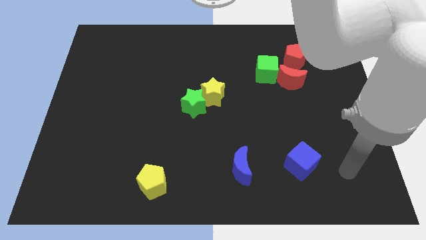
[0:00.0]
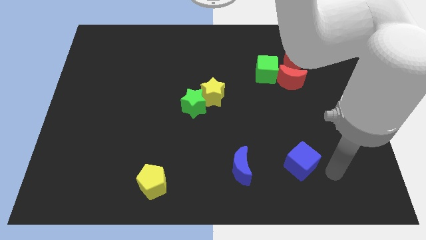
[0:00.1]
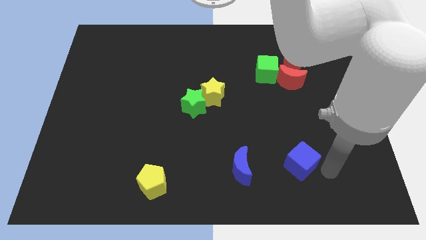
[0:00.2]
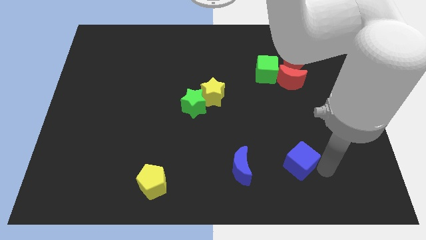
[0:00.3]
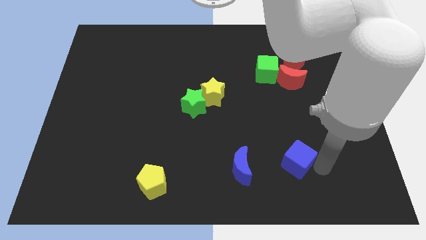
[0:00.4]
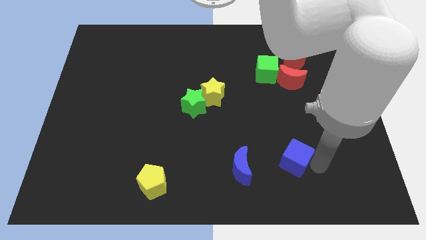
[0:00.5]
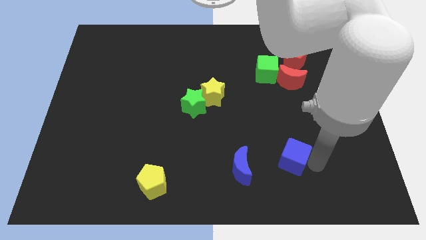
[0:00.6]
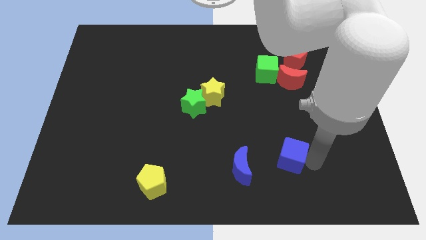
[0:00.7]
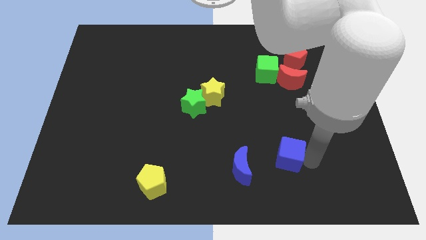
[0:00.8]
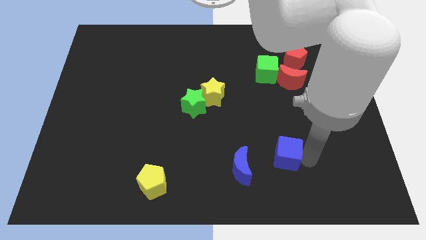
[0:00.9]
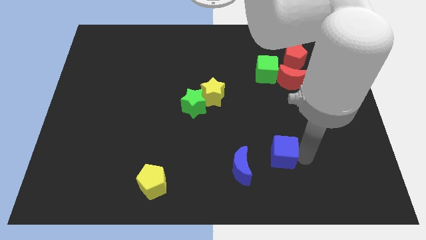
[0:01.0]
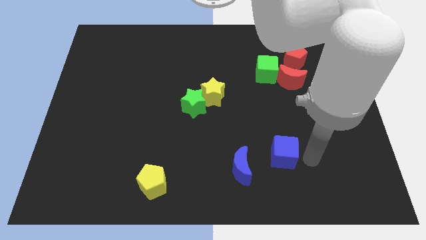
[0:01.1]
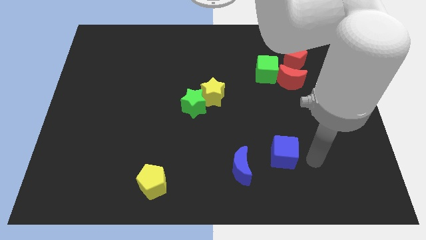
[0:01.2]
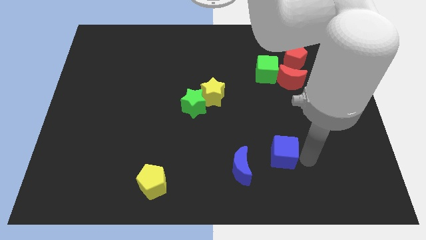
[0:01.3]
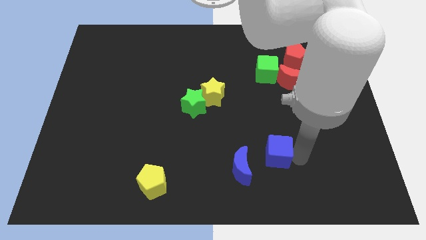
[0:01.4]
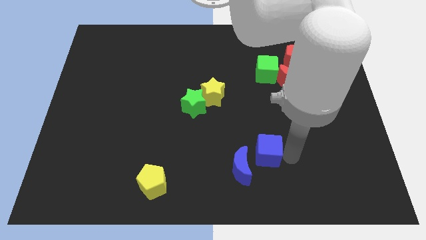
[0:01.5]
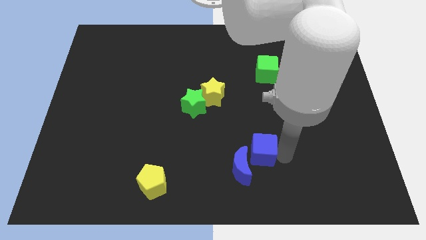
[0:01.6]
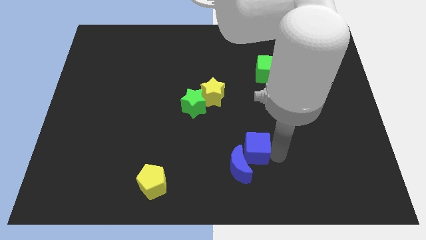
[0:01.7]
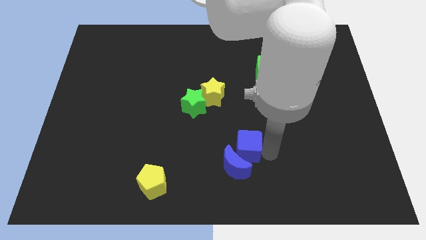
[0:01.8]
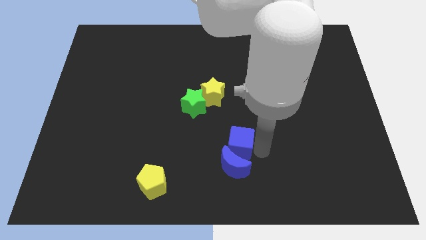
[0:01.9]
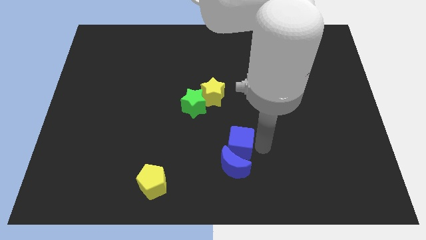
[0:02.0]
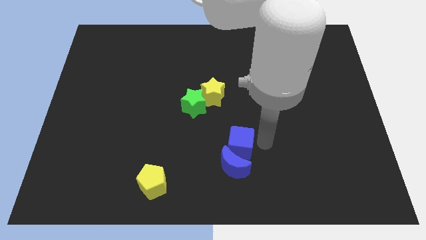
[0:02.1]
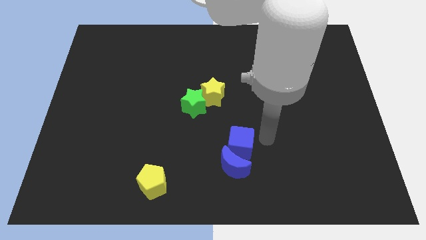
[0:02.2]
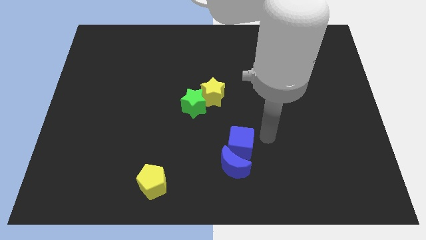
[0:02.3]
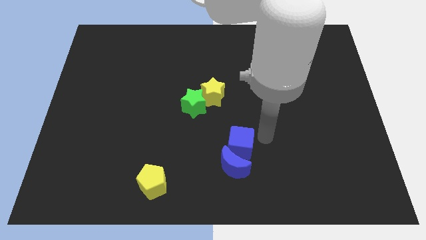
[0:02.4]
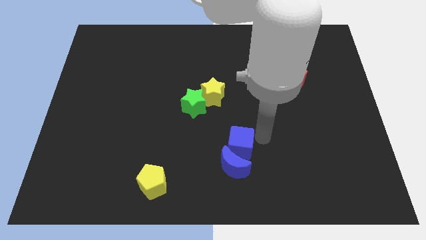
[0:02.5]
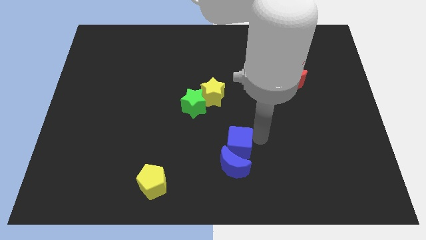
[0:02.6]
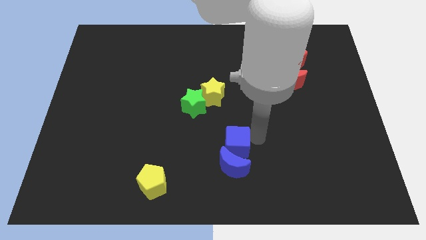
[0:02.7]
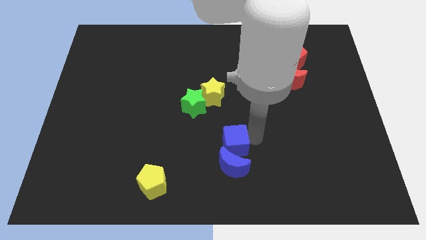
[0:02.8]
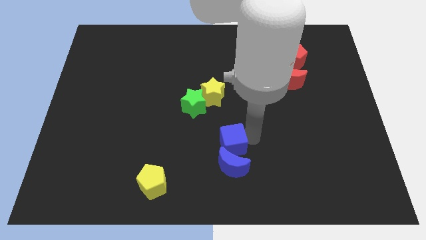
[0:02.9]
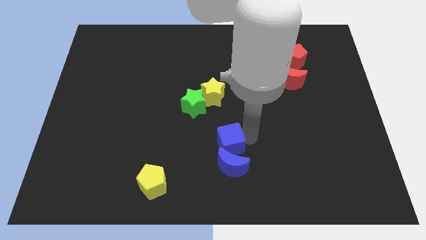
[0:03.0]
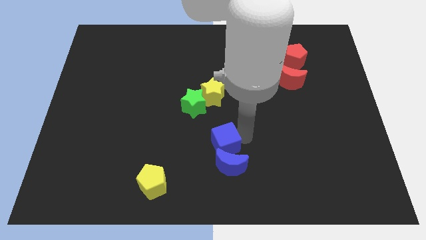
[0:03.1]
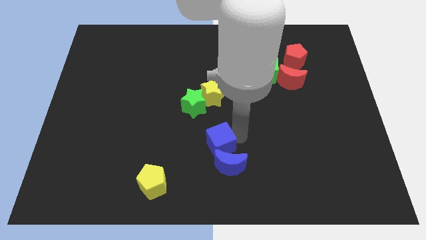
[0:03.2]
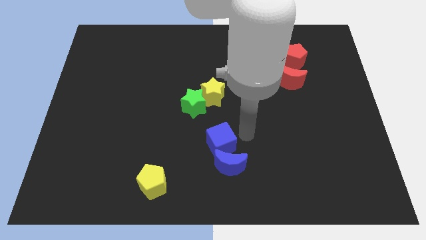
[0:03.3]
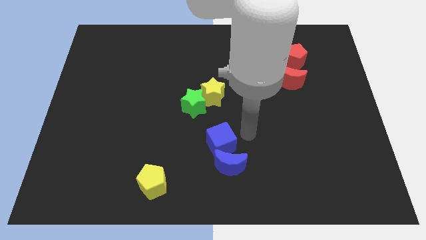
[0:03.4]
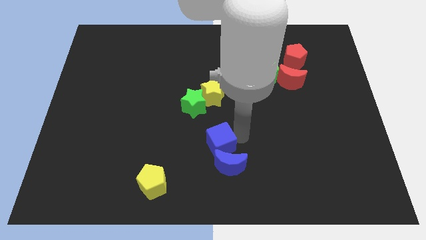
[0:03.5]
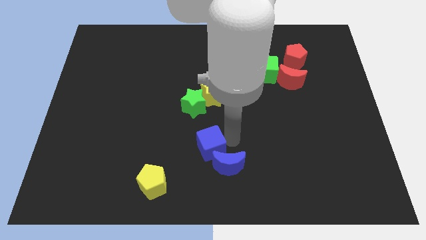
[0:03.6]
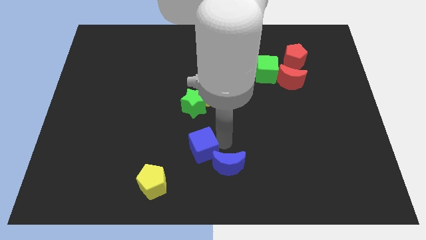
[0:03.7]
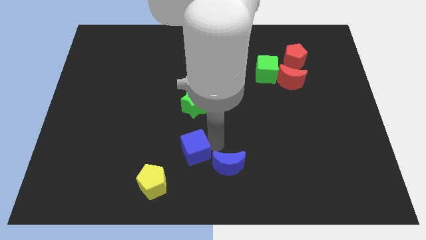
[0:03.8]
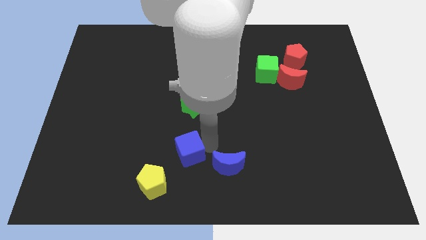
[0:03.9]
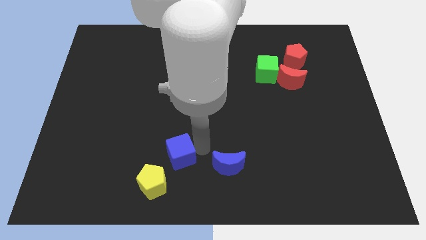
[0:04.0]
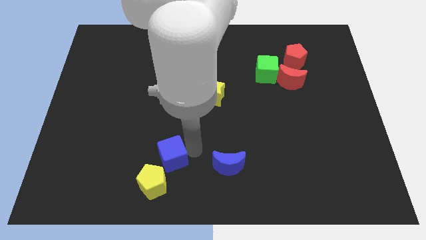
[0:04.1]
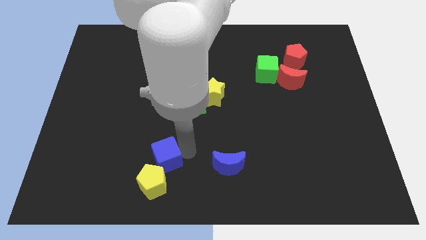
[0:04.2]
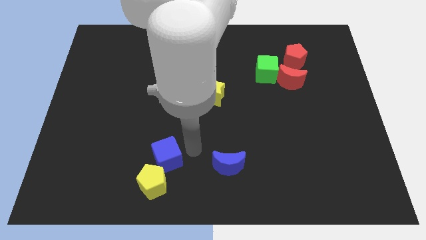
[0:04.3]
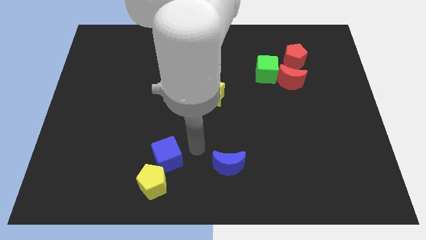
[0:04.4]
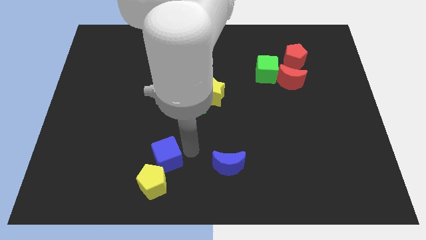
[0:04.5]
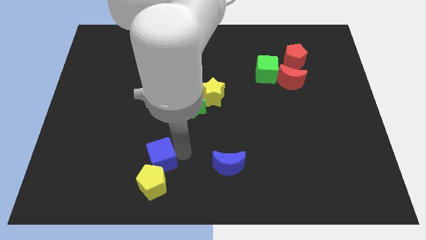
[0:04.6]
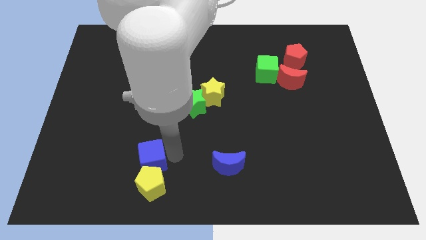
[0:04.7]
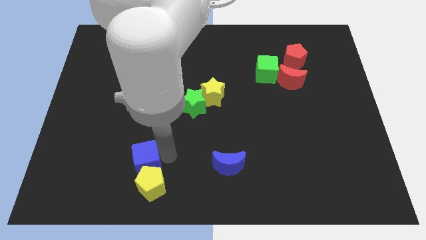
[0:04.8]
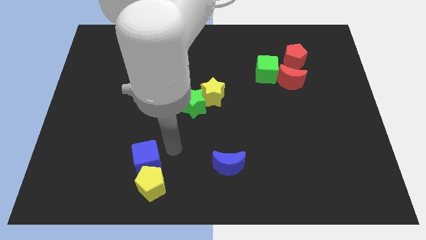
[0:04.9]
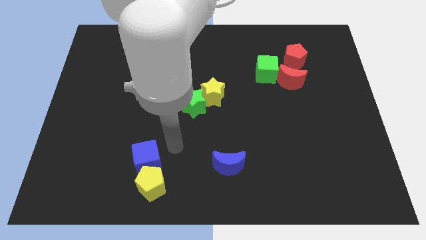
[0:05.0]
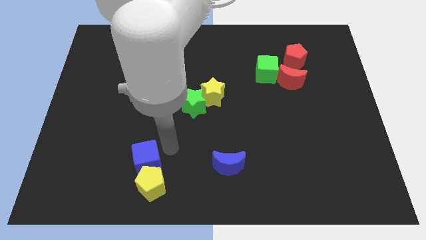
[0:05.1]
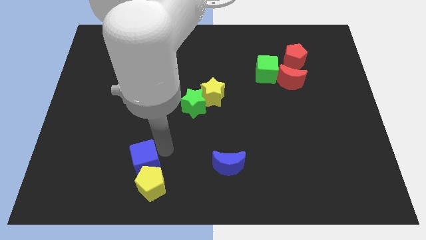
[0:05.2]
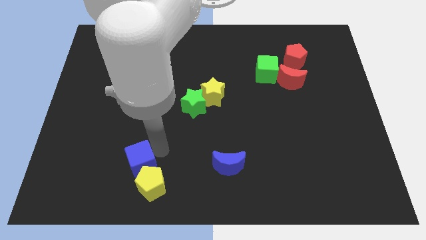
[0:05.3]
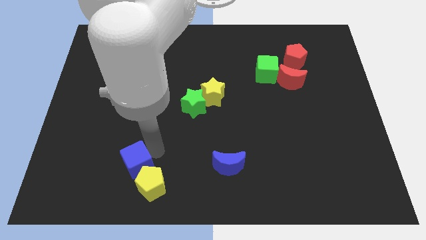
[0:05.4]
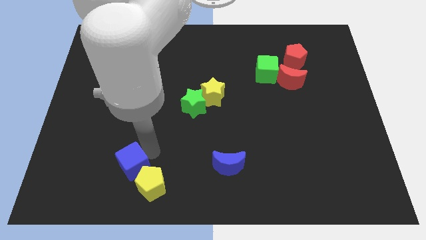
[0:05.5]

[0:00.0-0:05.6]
move the blue cube to the left side of the yellow pentagon

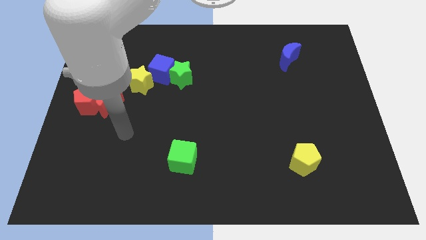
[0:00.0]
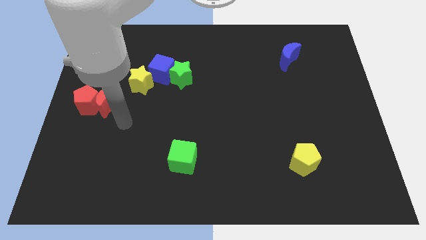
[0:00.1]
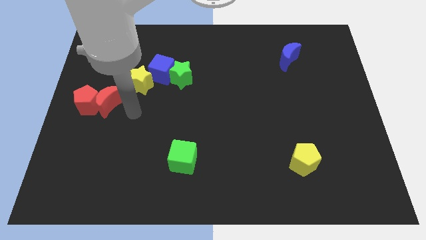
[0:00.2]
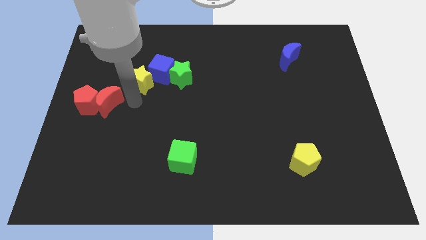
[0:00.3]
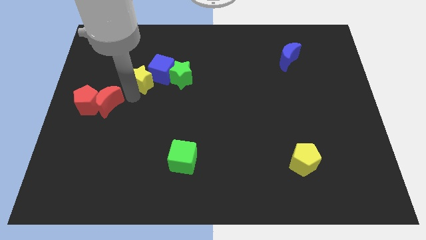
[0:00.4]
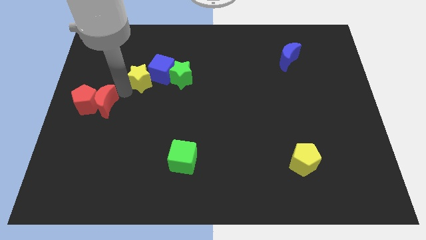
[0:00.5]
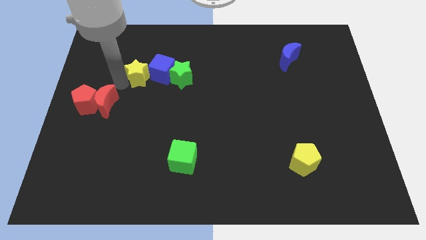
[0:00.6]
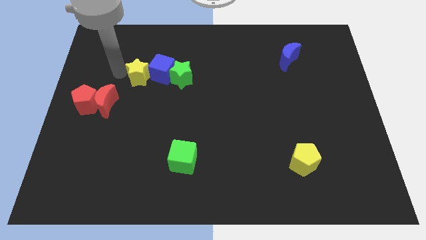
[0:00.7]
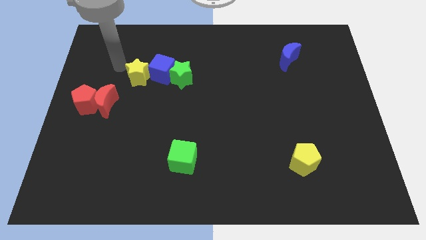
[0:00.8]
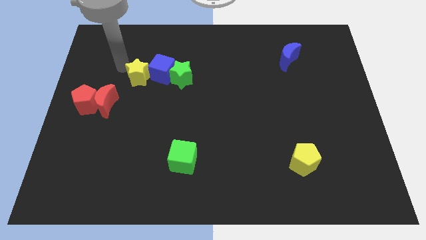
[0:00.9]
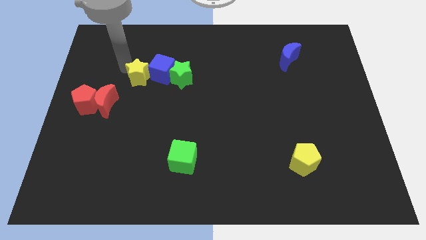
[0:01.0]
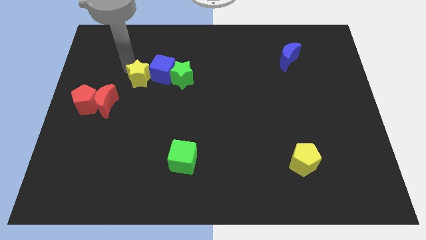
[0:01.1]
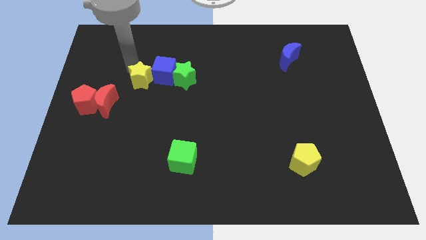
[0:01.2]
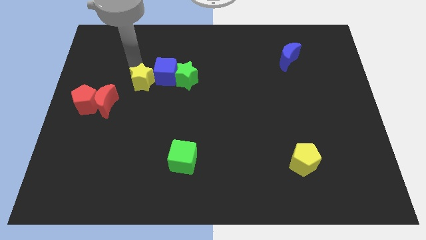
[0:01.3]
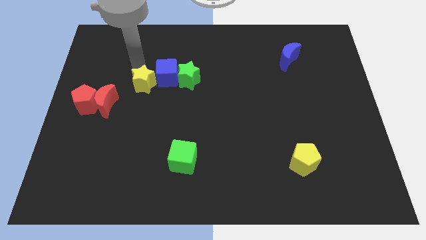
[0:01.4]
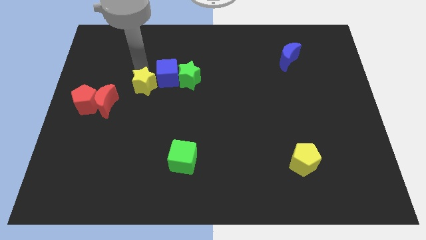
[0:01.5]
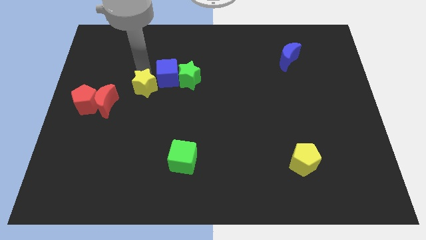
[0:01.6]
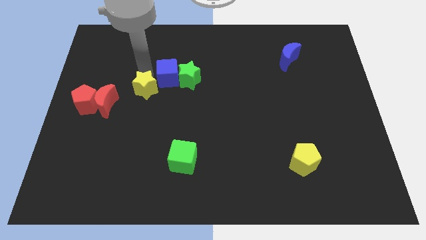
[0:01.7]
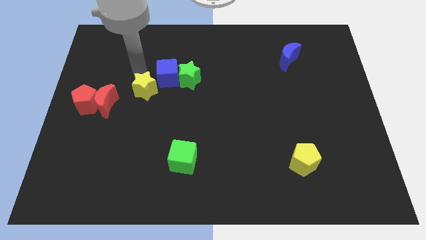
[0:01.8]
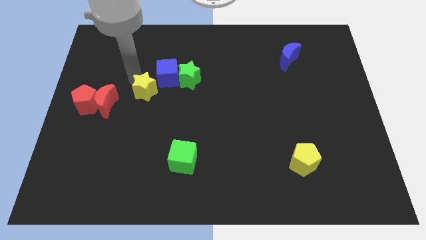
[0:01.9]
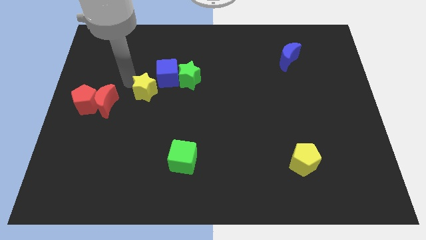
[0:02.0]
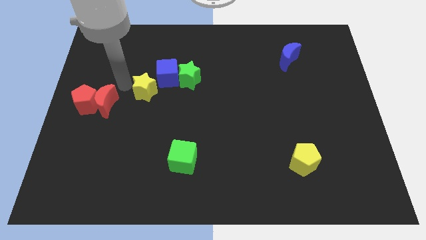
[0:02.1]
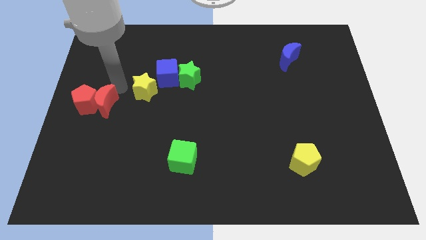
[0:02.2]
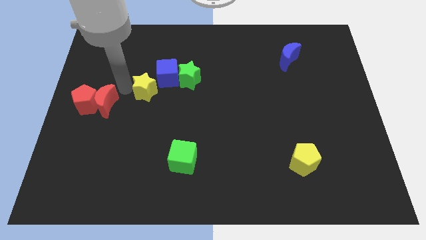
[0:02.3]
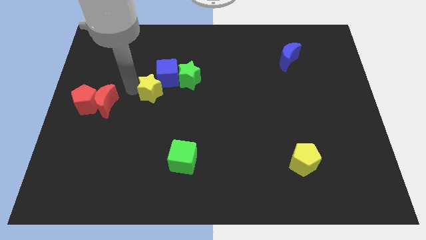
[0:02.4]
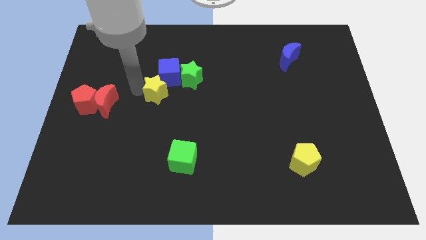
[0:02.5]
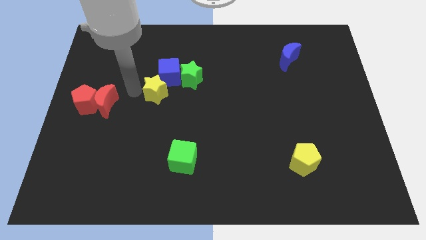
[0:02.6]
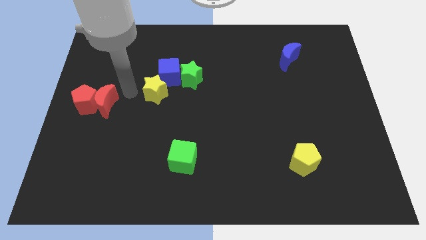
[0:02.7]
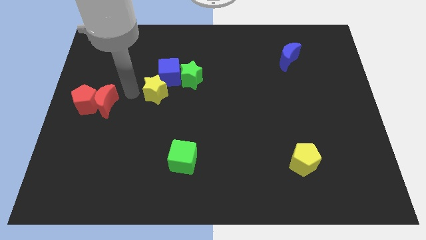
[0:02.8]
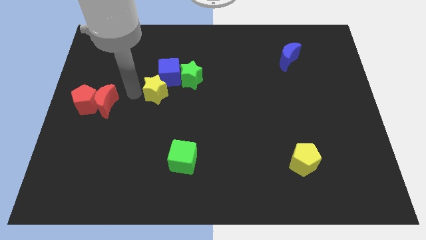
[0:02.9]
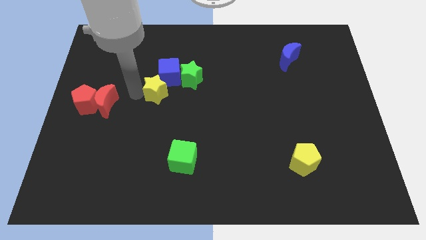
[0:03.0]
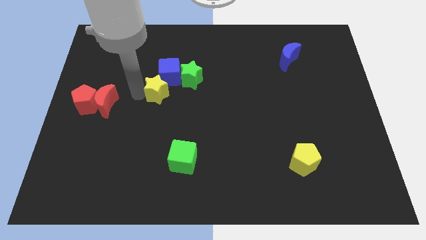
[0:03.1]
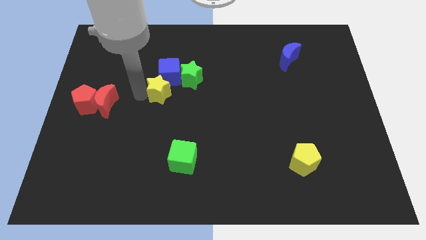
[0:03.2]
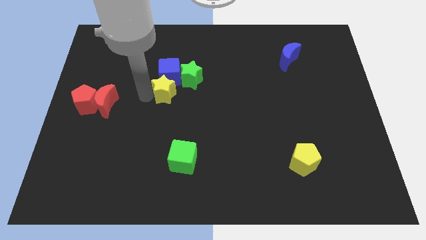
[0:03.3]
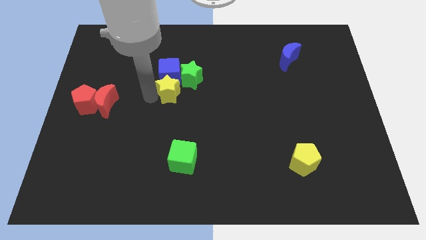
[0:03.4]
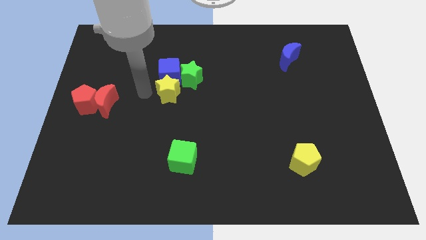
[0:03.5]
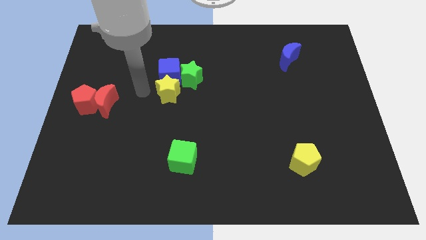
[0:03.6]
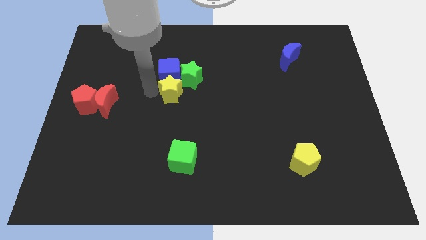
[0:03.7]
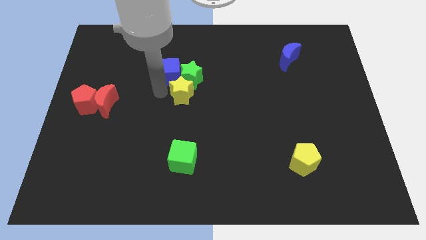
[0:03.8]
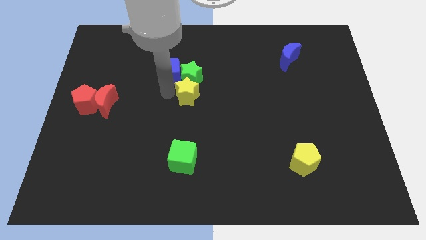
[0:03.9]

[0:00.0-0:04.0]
move the yellow star diagonally down and to the right of the green star
